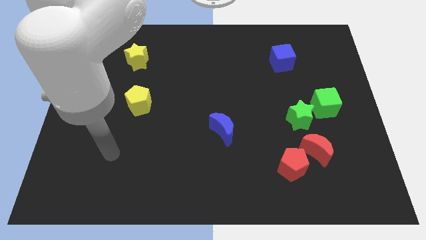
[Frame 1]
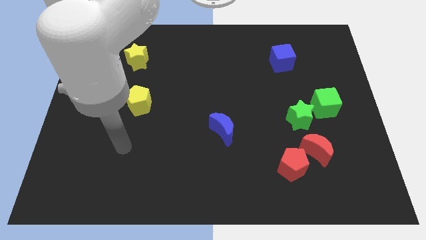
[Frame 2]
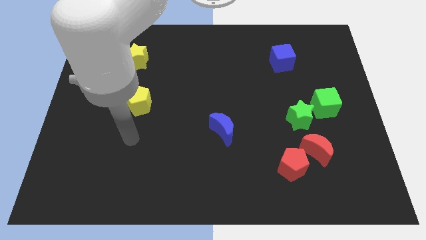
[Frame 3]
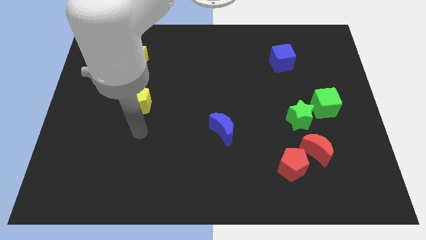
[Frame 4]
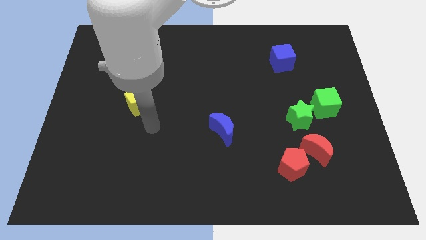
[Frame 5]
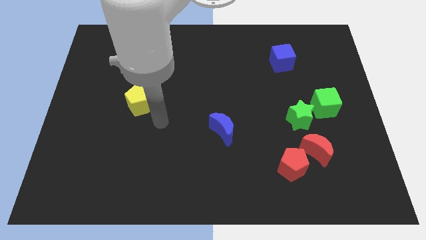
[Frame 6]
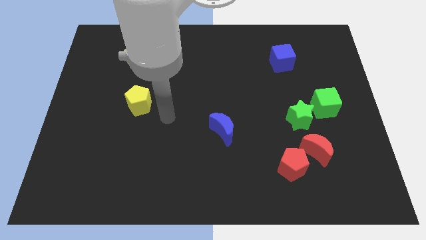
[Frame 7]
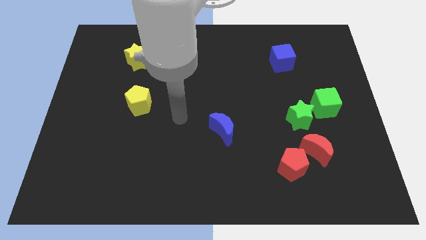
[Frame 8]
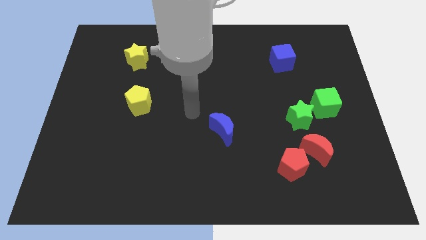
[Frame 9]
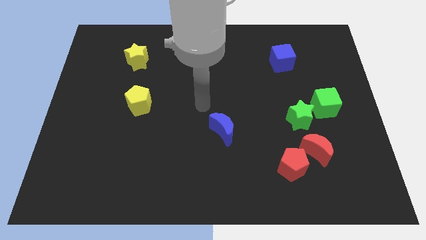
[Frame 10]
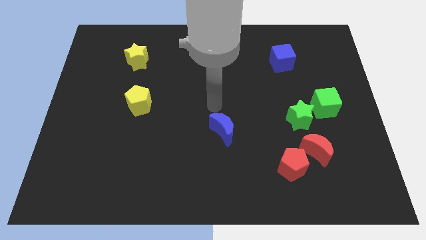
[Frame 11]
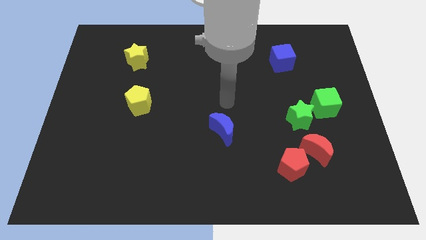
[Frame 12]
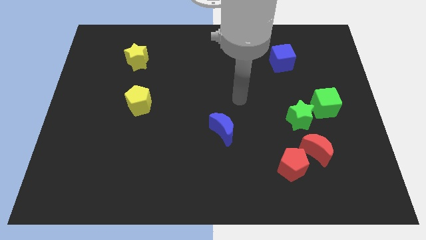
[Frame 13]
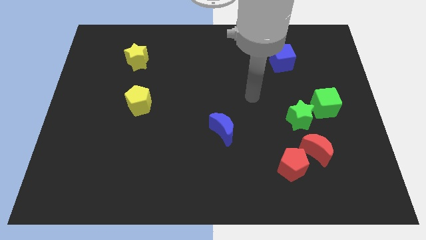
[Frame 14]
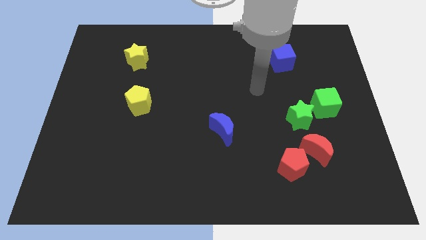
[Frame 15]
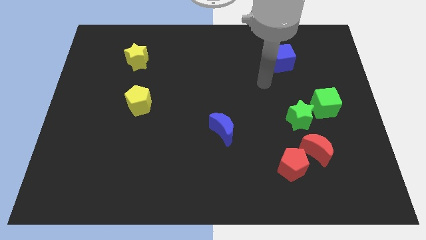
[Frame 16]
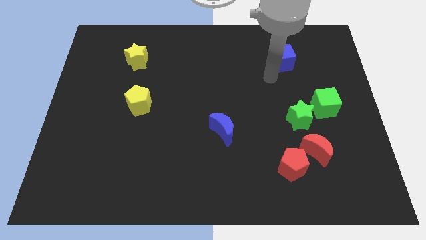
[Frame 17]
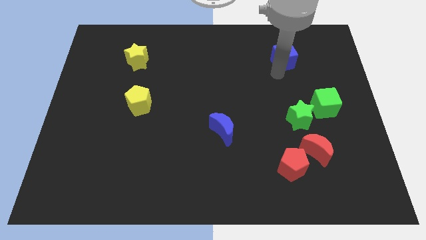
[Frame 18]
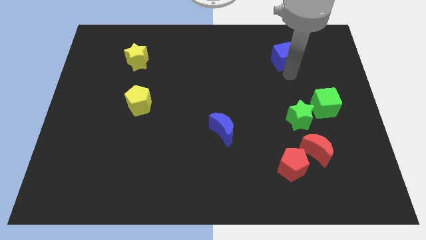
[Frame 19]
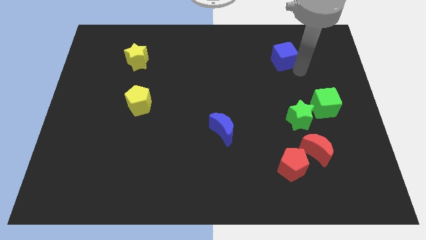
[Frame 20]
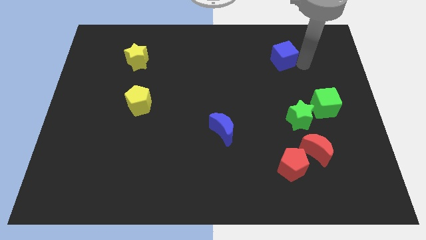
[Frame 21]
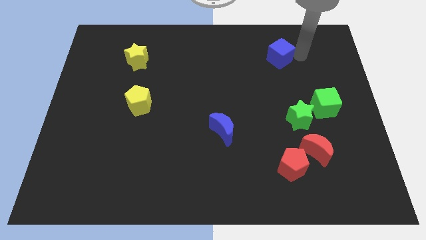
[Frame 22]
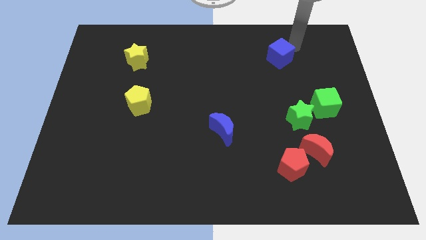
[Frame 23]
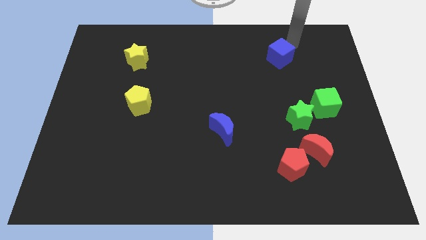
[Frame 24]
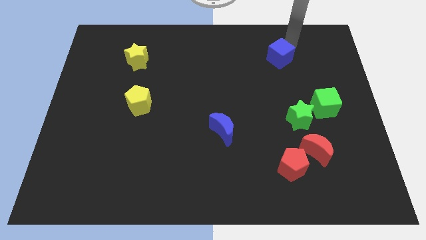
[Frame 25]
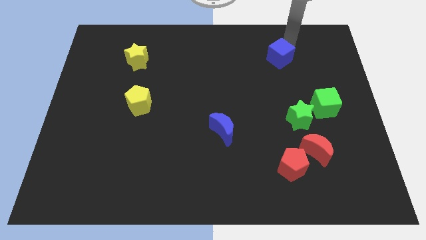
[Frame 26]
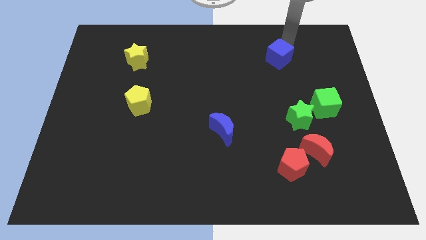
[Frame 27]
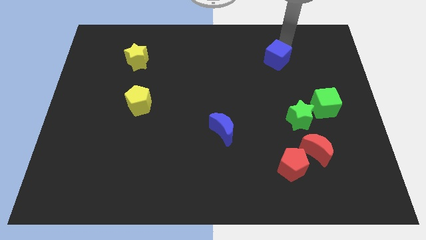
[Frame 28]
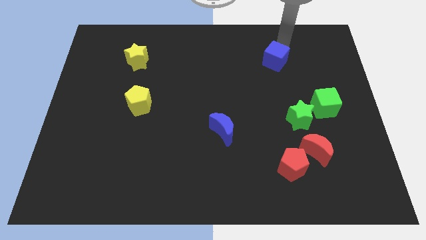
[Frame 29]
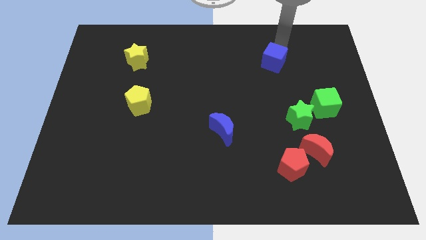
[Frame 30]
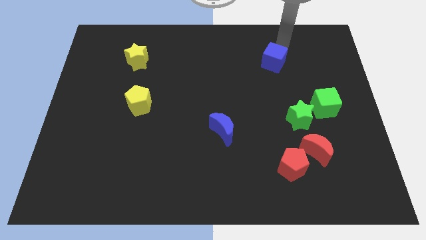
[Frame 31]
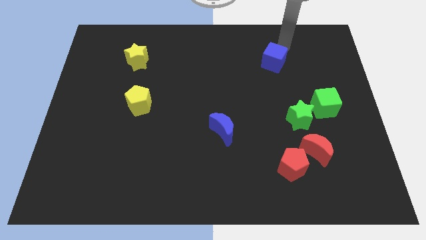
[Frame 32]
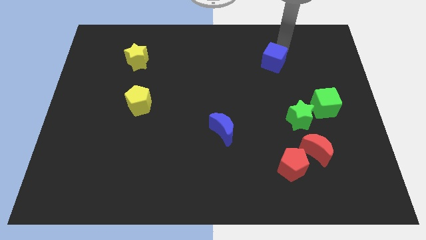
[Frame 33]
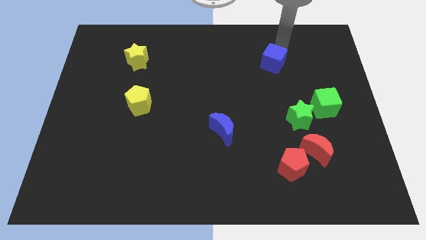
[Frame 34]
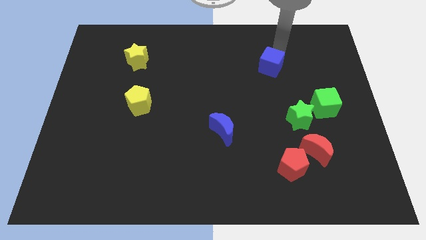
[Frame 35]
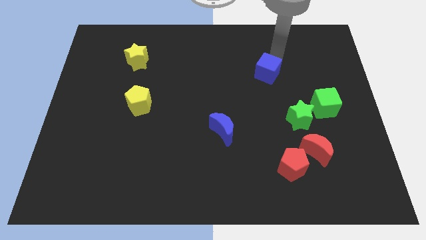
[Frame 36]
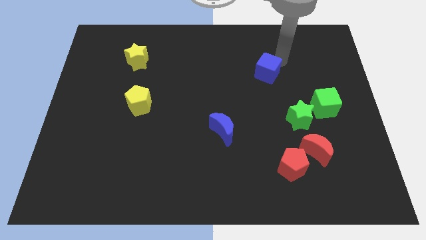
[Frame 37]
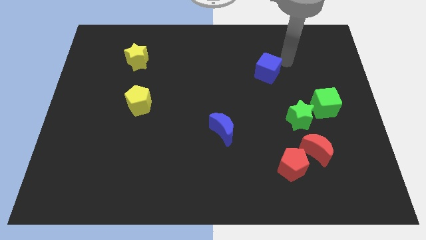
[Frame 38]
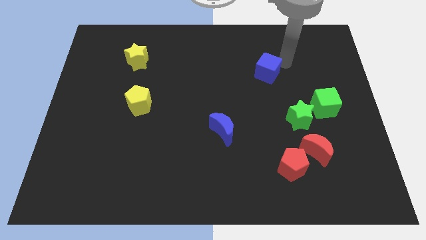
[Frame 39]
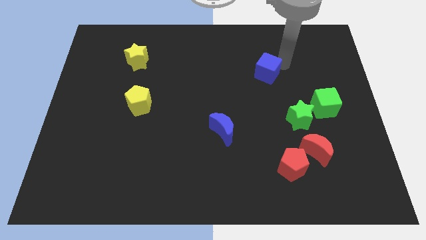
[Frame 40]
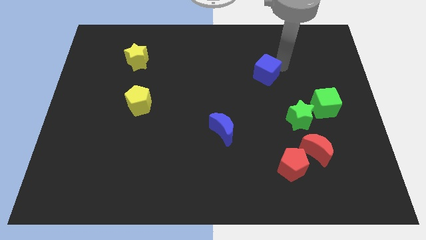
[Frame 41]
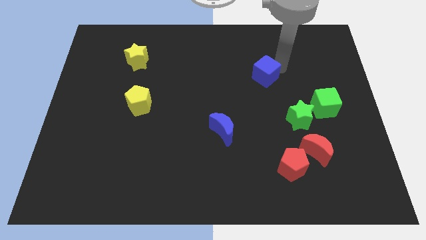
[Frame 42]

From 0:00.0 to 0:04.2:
slightly slide the blue cube diagonally downwards and left

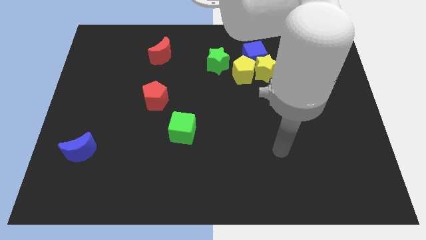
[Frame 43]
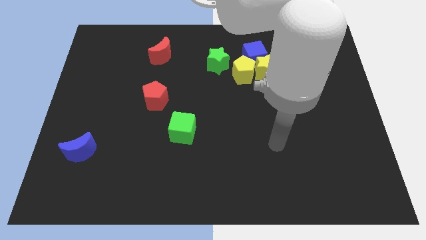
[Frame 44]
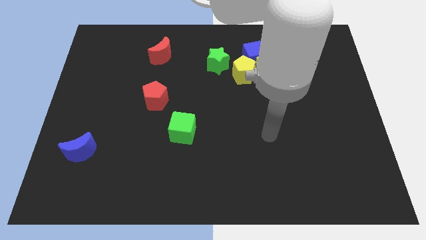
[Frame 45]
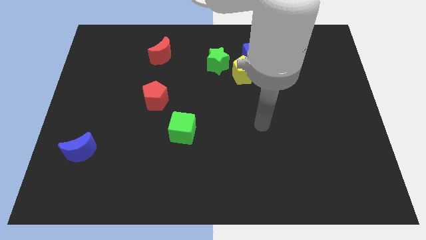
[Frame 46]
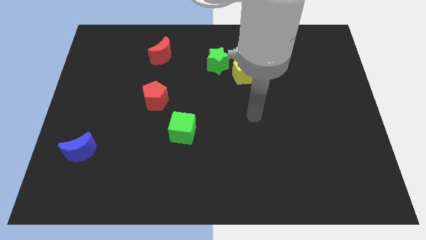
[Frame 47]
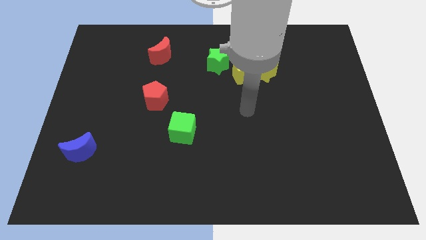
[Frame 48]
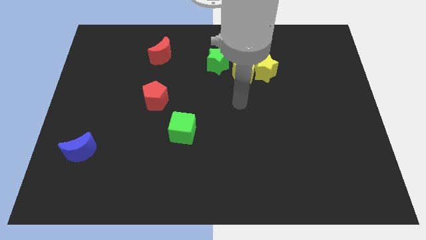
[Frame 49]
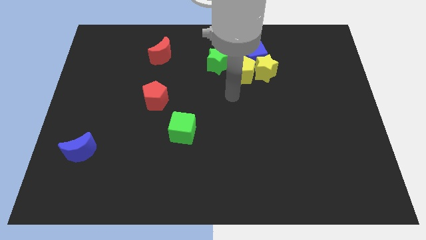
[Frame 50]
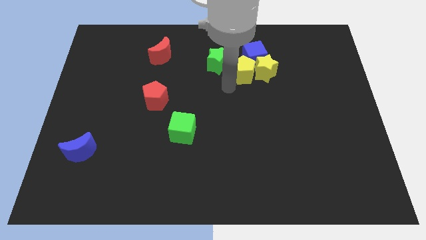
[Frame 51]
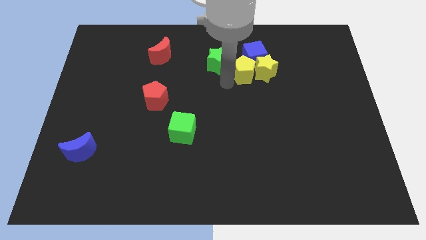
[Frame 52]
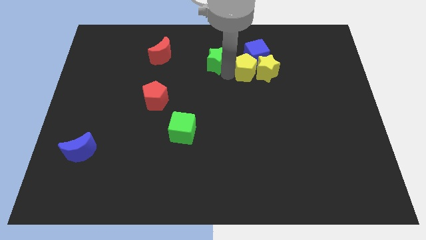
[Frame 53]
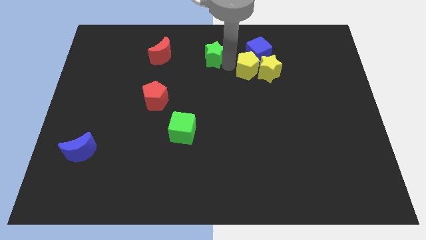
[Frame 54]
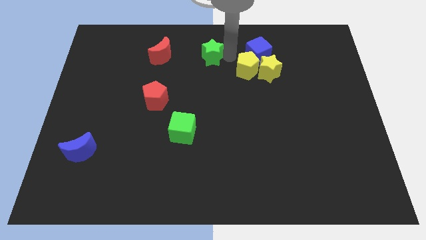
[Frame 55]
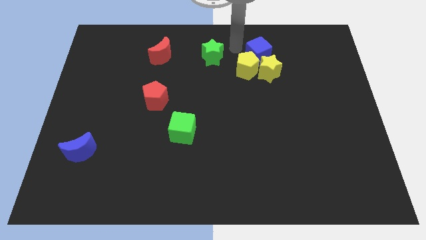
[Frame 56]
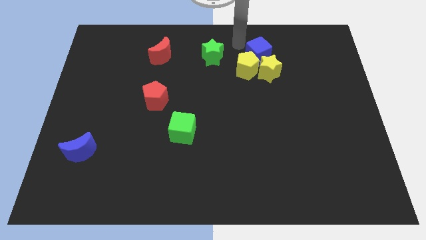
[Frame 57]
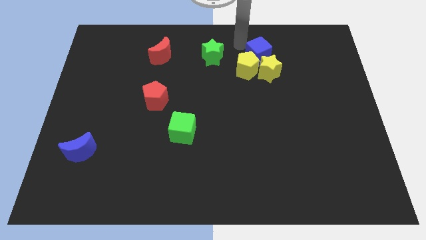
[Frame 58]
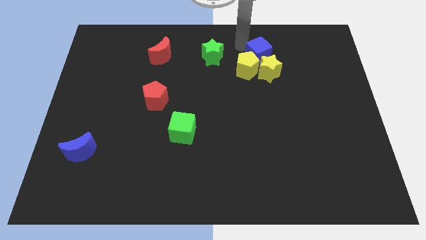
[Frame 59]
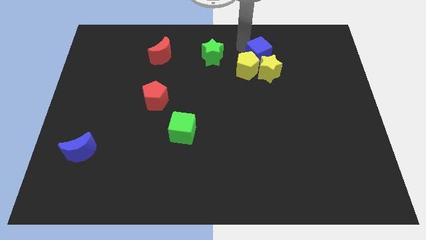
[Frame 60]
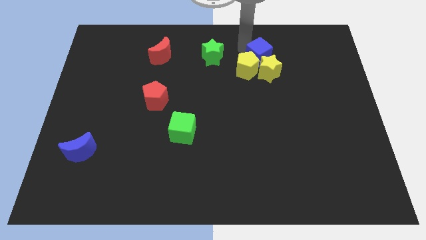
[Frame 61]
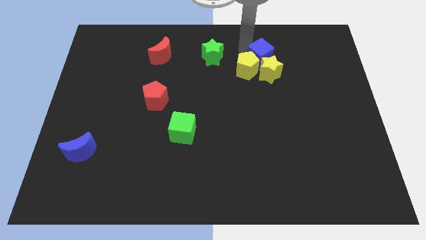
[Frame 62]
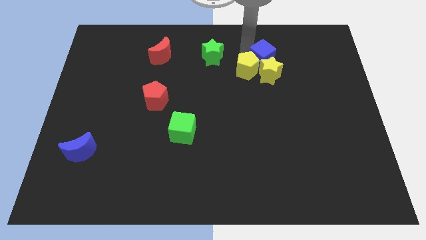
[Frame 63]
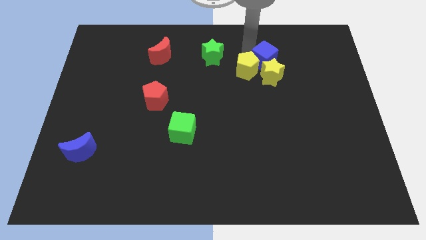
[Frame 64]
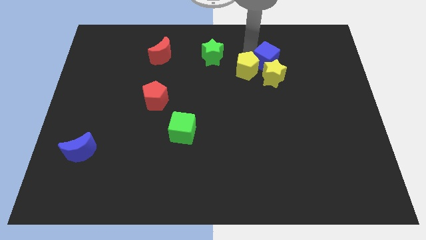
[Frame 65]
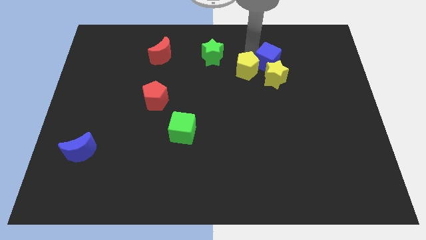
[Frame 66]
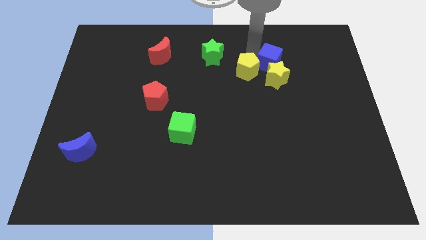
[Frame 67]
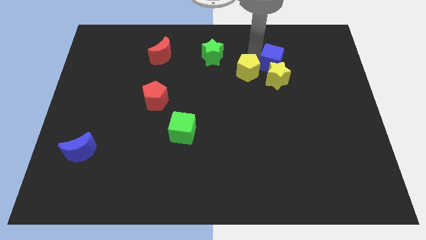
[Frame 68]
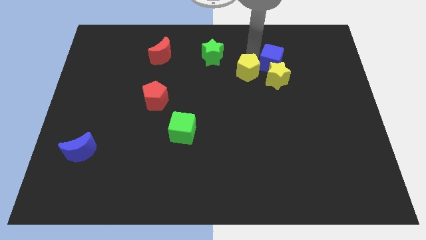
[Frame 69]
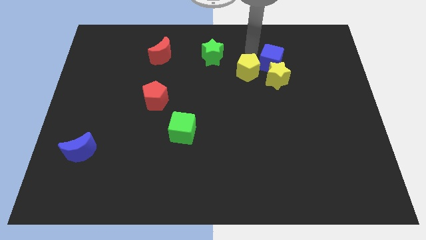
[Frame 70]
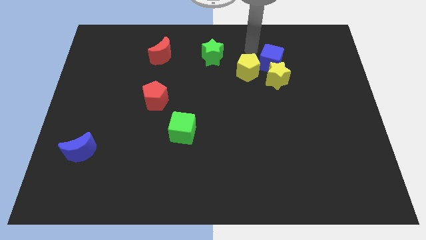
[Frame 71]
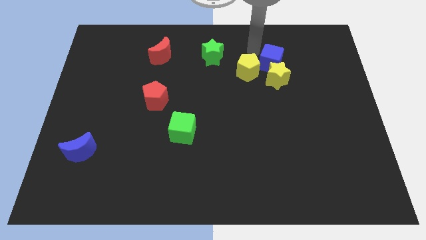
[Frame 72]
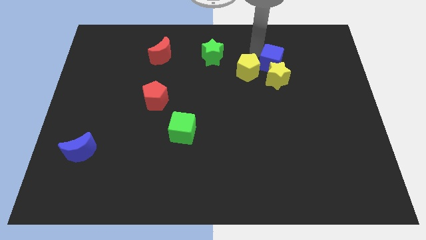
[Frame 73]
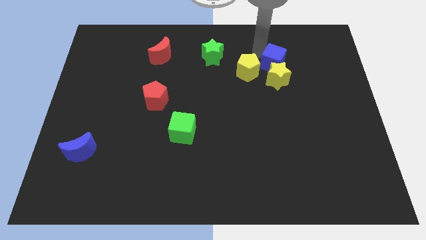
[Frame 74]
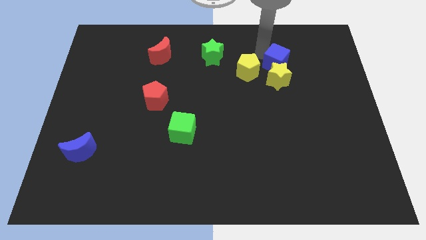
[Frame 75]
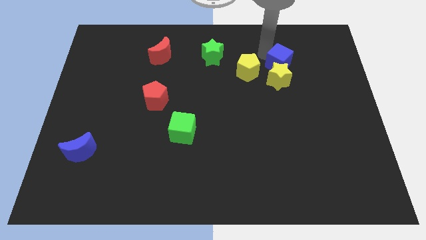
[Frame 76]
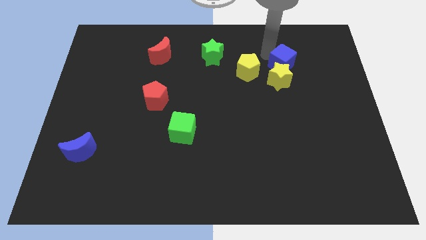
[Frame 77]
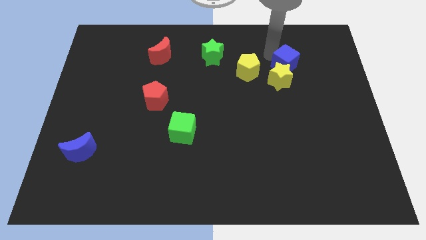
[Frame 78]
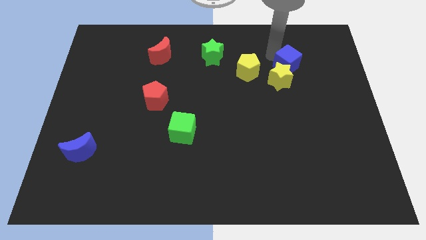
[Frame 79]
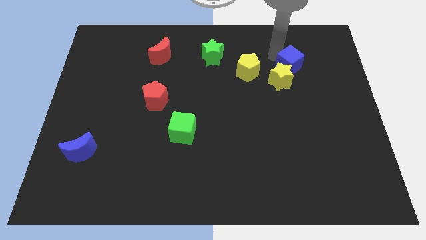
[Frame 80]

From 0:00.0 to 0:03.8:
slide the blue cube down and then right a little

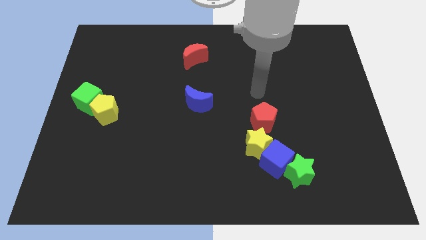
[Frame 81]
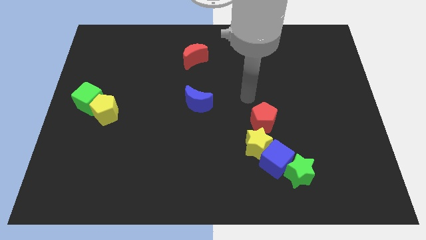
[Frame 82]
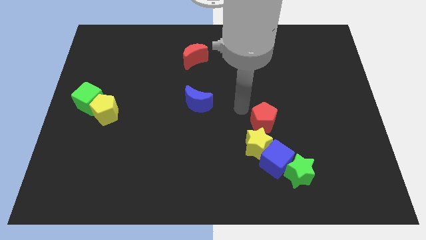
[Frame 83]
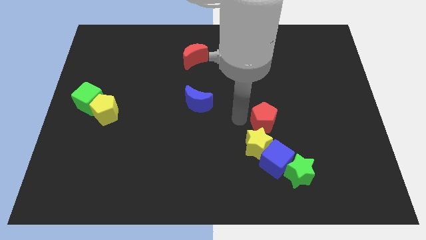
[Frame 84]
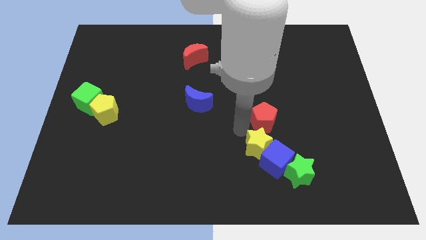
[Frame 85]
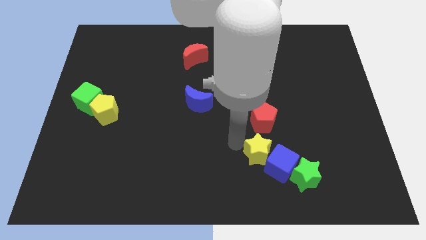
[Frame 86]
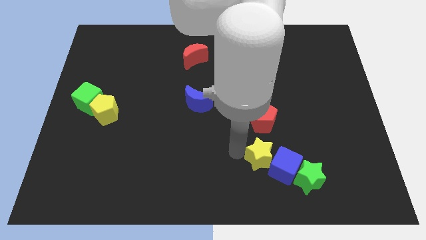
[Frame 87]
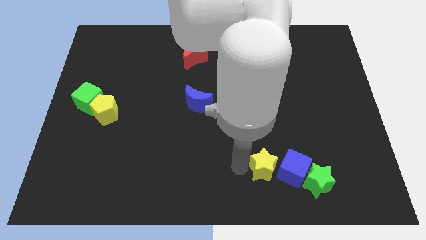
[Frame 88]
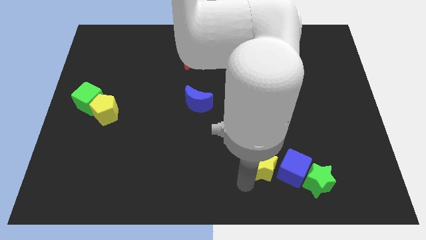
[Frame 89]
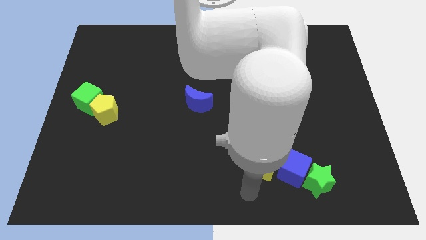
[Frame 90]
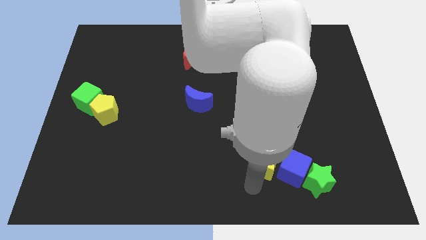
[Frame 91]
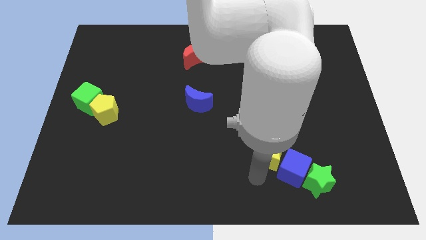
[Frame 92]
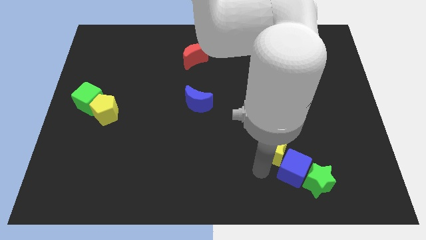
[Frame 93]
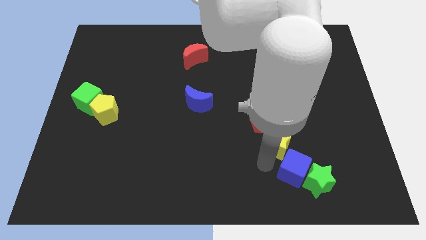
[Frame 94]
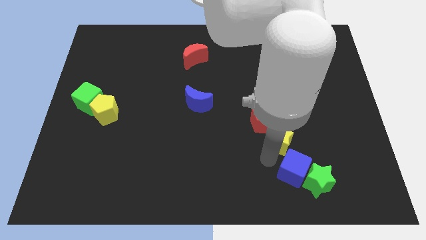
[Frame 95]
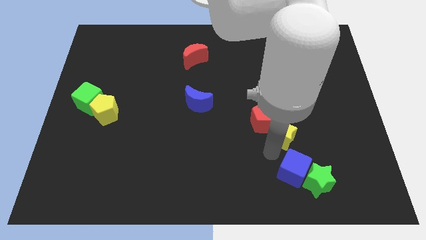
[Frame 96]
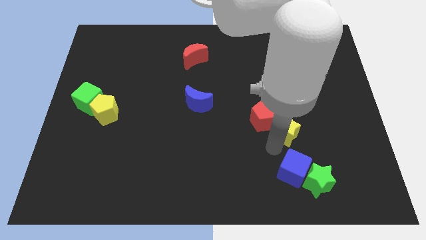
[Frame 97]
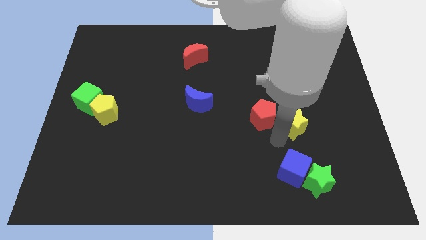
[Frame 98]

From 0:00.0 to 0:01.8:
push the yellow star up and then right slightly
